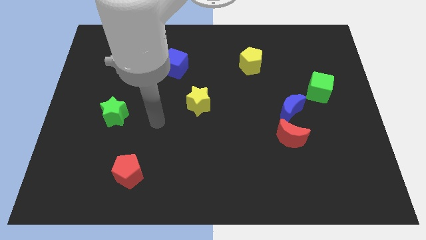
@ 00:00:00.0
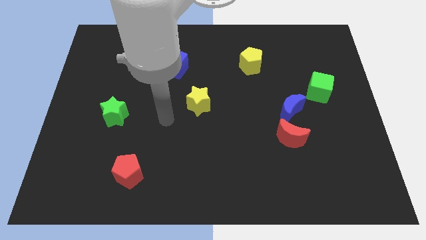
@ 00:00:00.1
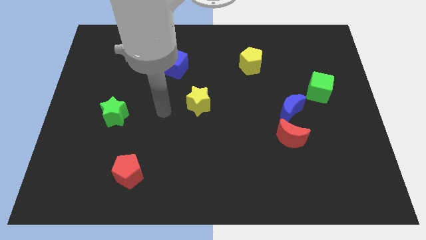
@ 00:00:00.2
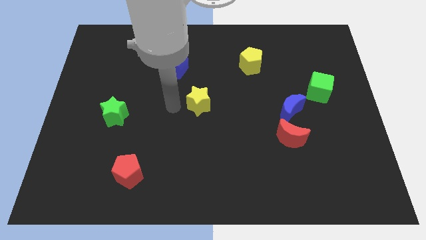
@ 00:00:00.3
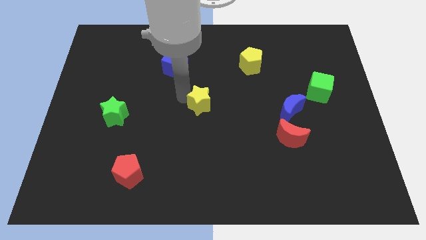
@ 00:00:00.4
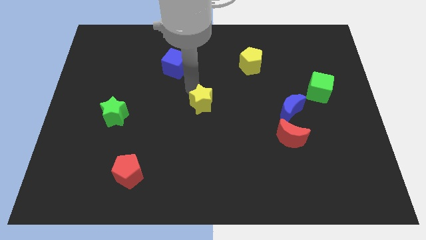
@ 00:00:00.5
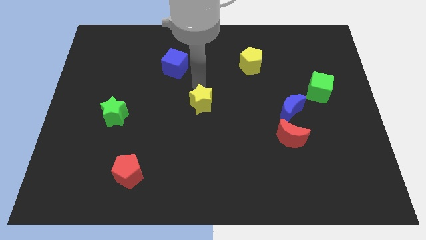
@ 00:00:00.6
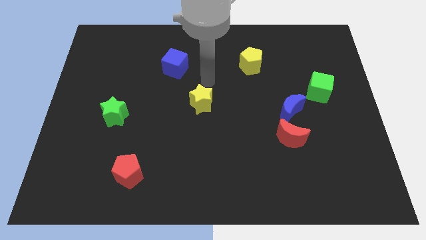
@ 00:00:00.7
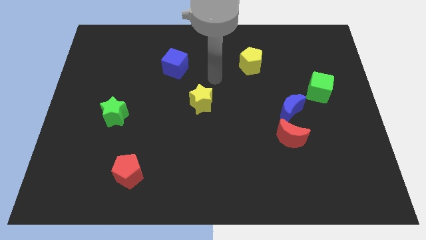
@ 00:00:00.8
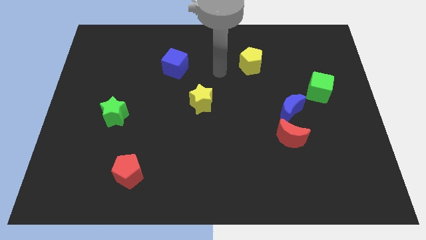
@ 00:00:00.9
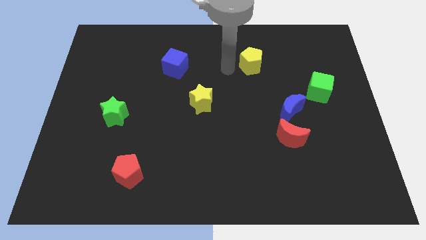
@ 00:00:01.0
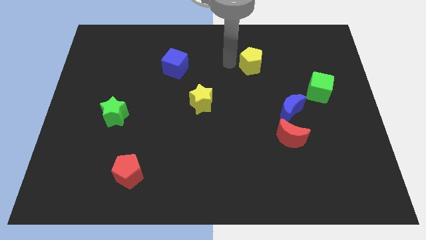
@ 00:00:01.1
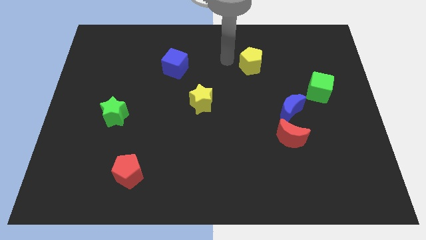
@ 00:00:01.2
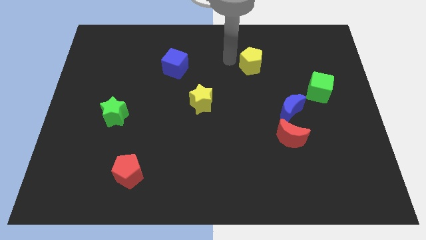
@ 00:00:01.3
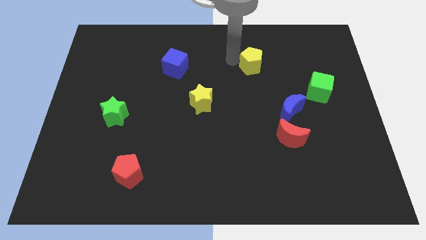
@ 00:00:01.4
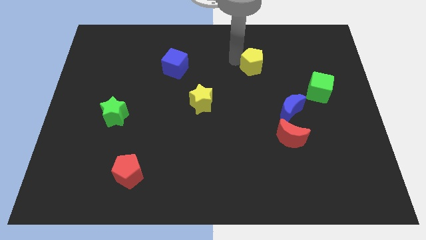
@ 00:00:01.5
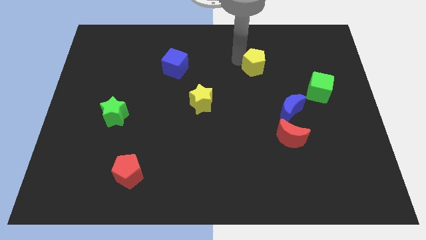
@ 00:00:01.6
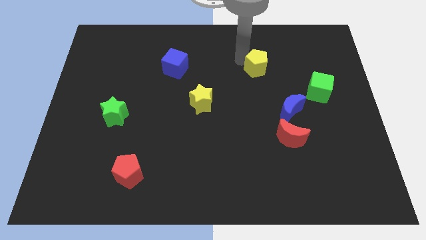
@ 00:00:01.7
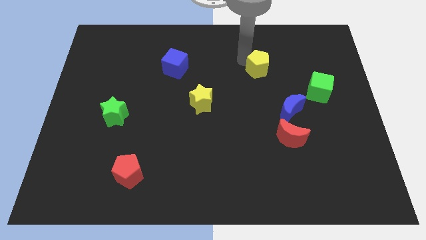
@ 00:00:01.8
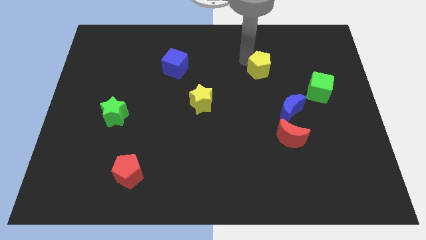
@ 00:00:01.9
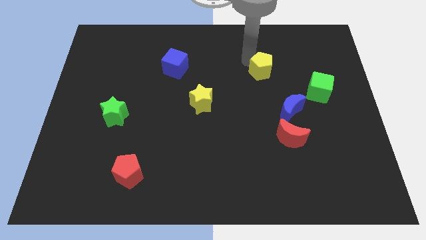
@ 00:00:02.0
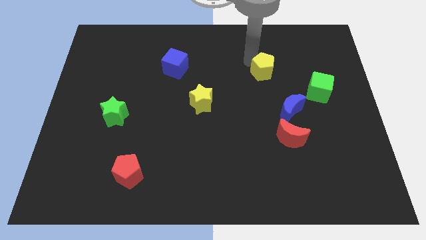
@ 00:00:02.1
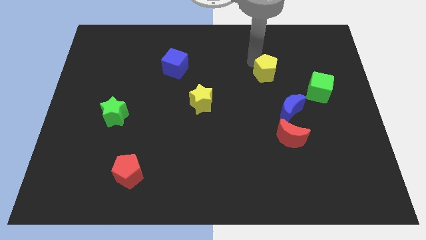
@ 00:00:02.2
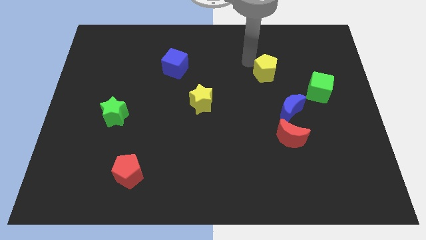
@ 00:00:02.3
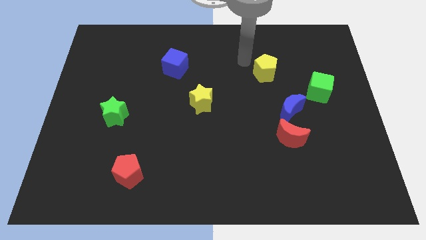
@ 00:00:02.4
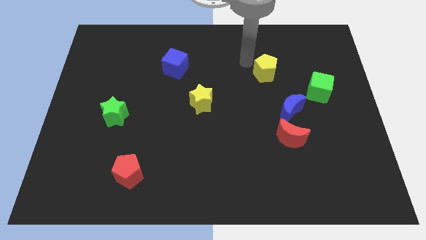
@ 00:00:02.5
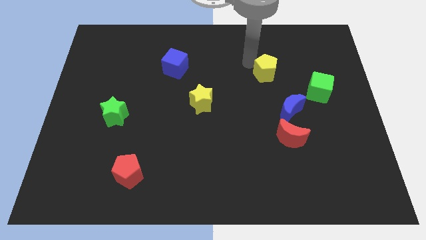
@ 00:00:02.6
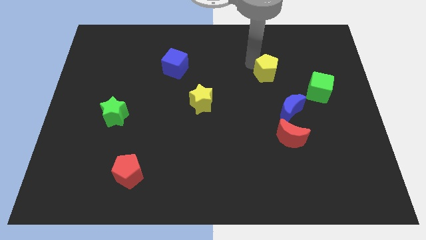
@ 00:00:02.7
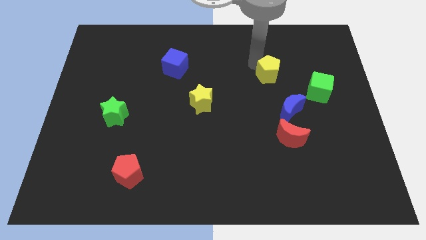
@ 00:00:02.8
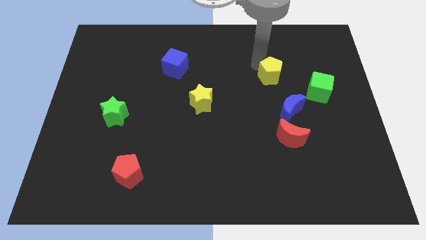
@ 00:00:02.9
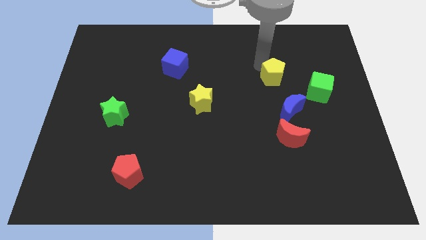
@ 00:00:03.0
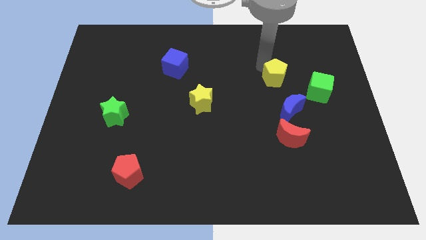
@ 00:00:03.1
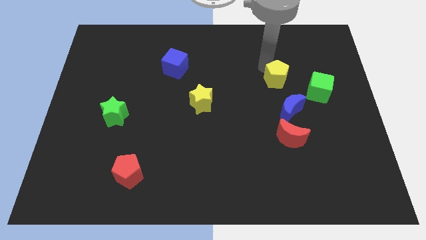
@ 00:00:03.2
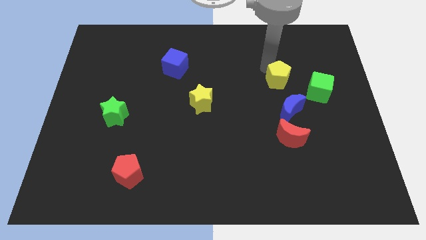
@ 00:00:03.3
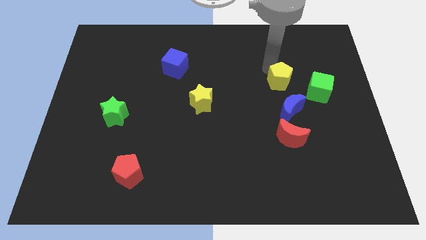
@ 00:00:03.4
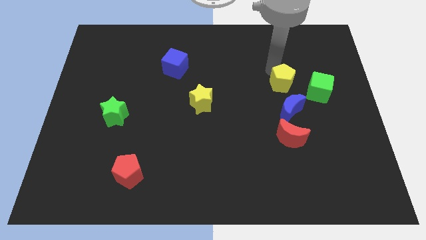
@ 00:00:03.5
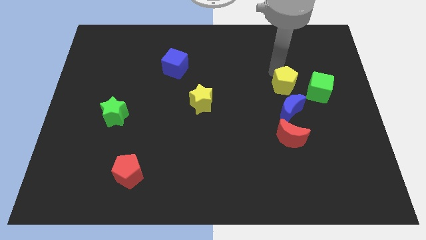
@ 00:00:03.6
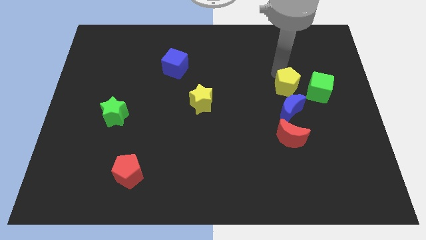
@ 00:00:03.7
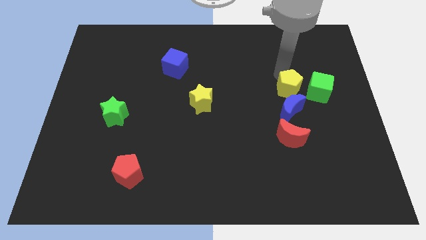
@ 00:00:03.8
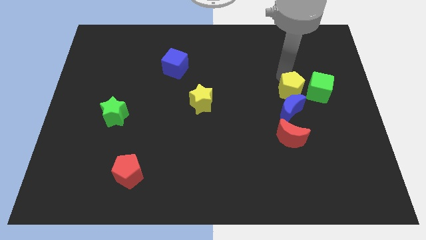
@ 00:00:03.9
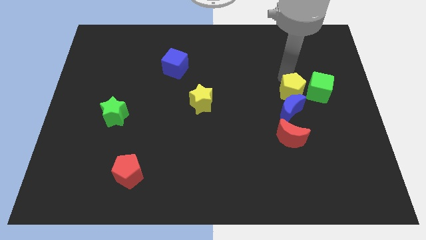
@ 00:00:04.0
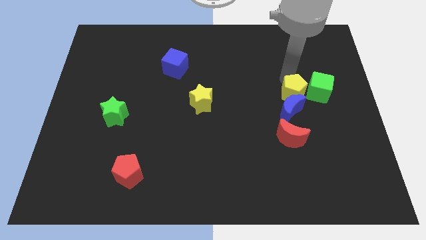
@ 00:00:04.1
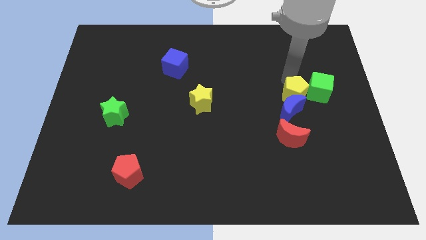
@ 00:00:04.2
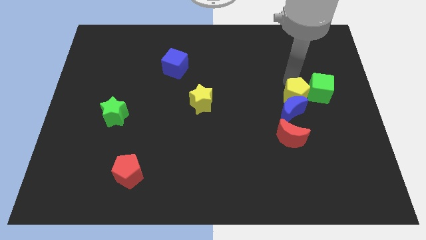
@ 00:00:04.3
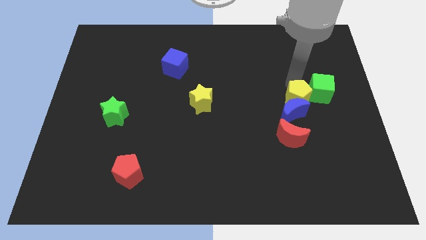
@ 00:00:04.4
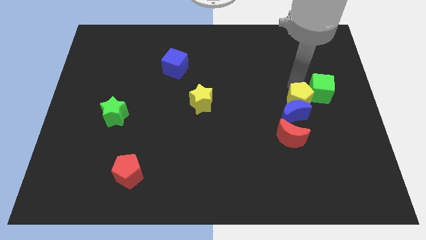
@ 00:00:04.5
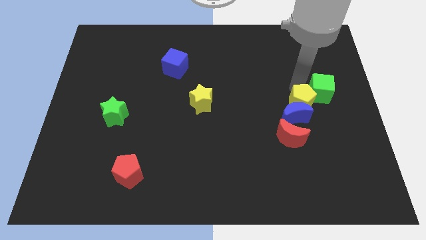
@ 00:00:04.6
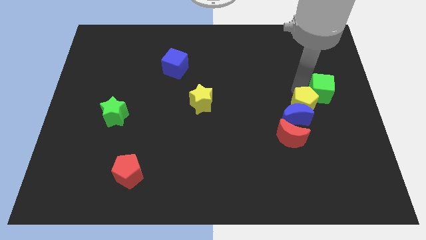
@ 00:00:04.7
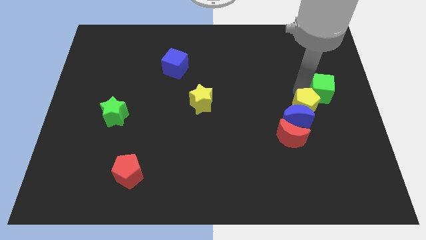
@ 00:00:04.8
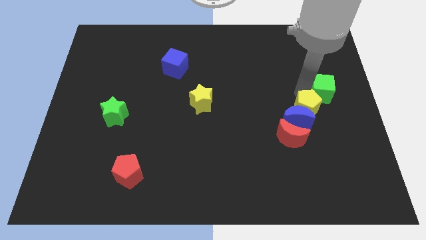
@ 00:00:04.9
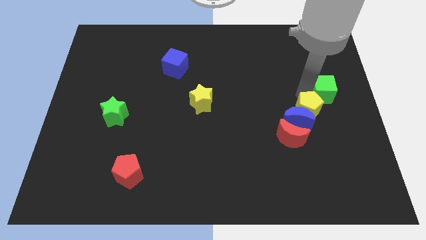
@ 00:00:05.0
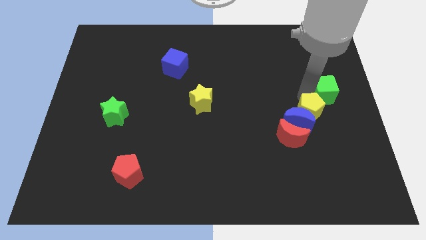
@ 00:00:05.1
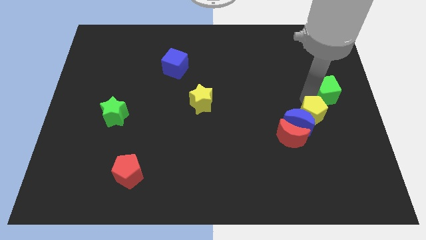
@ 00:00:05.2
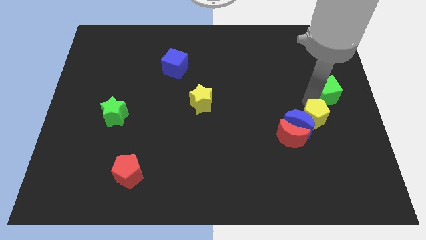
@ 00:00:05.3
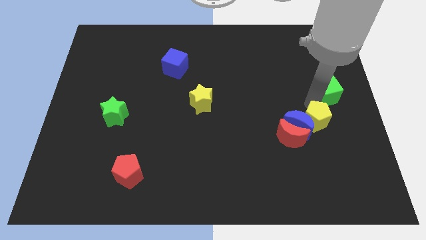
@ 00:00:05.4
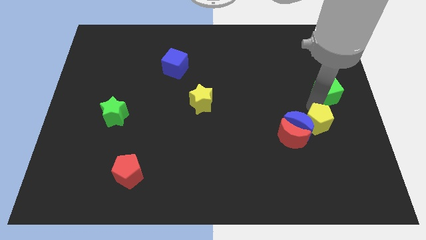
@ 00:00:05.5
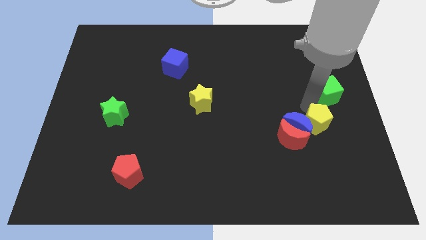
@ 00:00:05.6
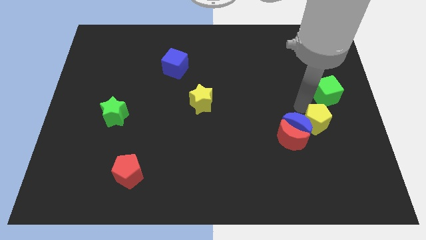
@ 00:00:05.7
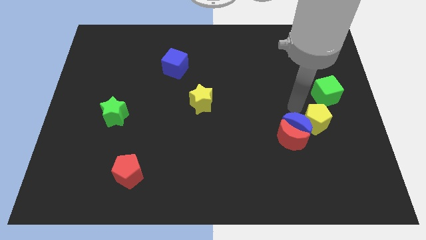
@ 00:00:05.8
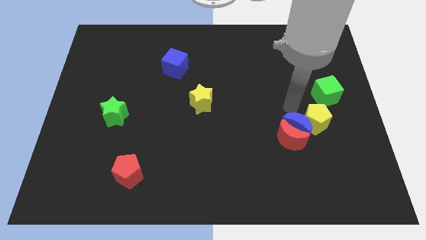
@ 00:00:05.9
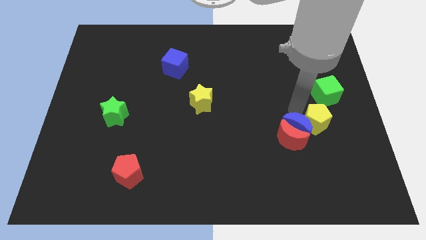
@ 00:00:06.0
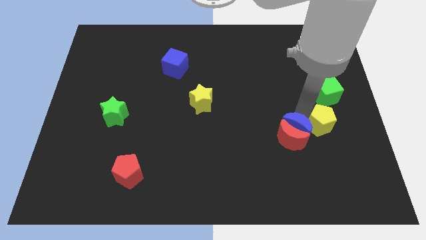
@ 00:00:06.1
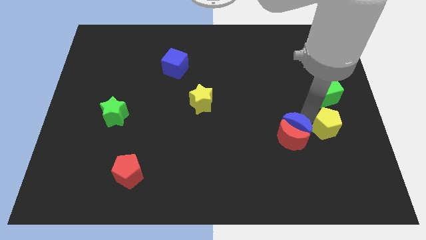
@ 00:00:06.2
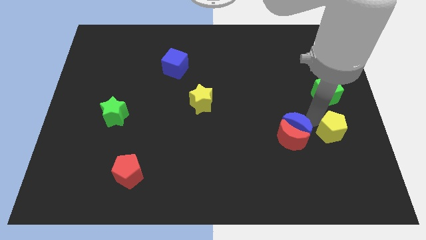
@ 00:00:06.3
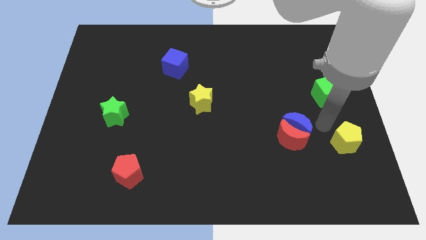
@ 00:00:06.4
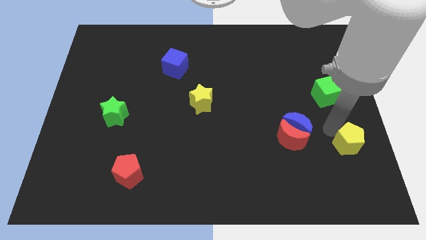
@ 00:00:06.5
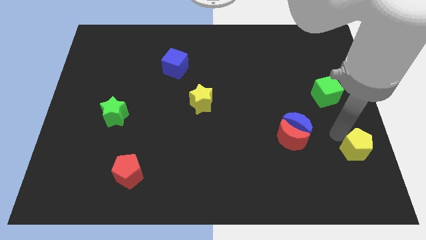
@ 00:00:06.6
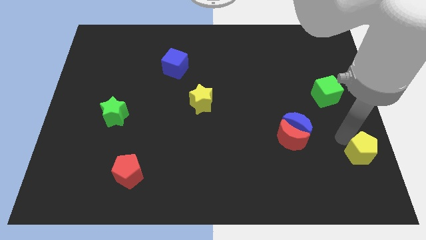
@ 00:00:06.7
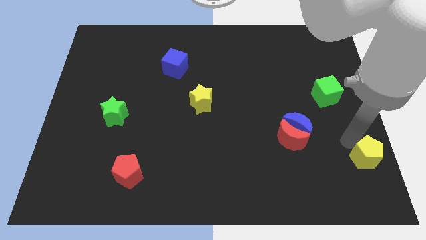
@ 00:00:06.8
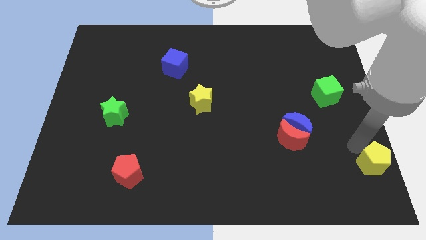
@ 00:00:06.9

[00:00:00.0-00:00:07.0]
put the yellow pentagon to the bottom right
